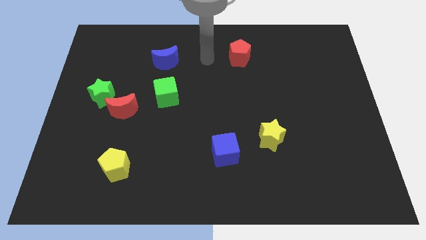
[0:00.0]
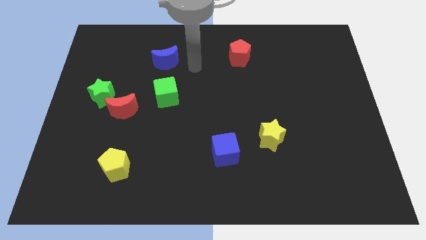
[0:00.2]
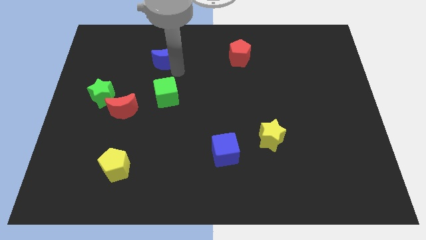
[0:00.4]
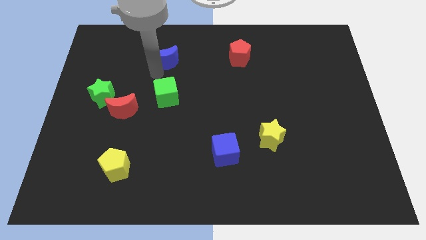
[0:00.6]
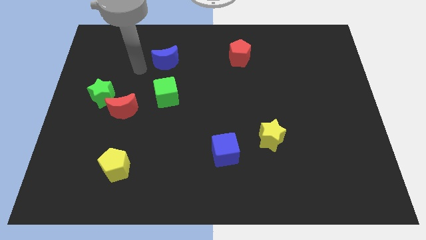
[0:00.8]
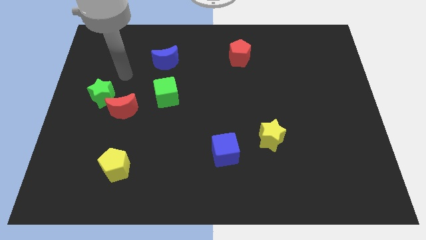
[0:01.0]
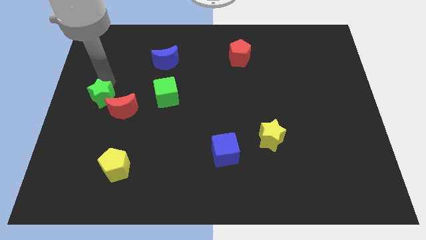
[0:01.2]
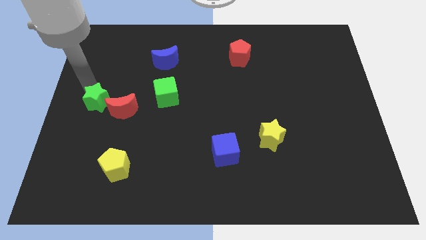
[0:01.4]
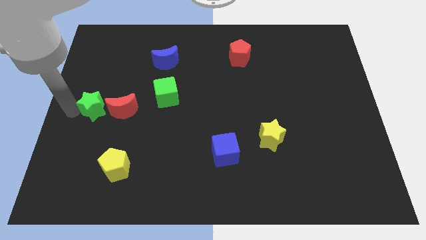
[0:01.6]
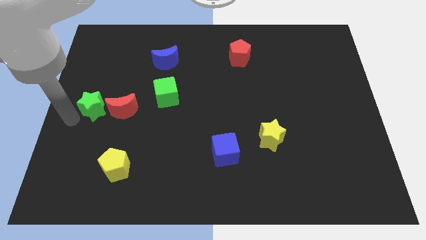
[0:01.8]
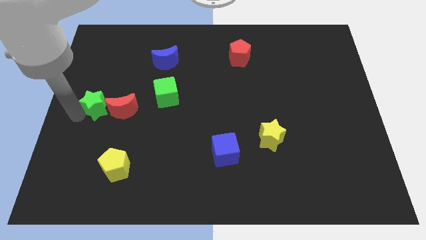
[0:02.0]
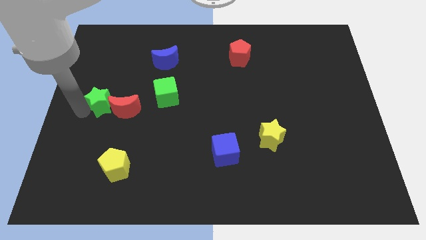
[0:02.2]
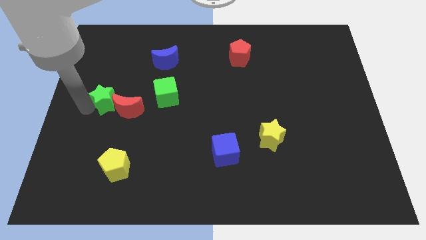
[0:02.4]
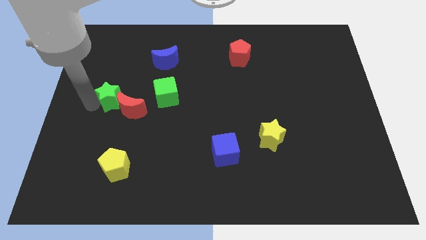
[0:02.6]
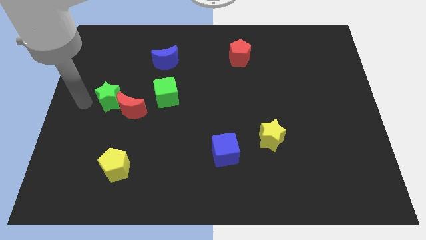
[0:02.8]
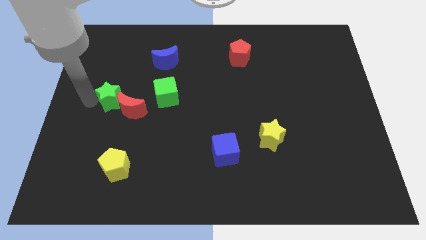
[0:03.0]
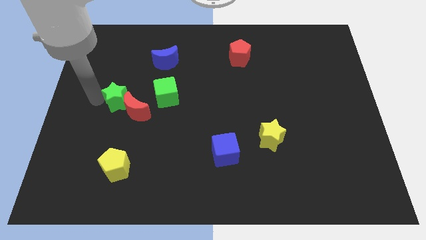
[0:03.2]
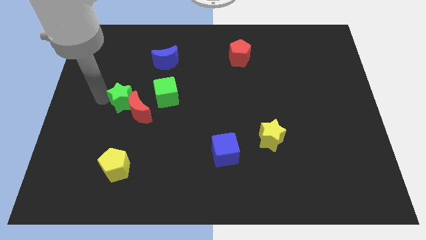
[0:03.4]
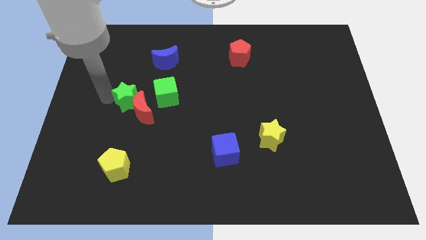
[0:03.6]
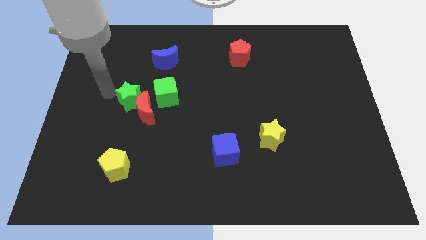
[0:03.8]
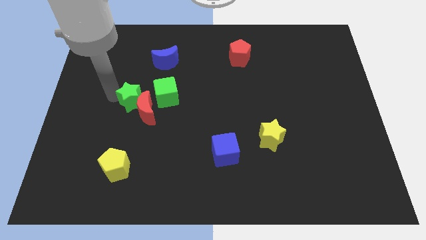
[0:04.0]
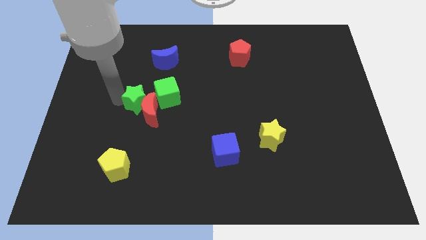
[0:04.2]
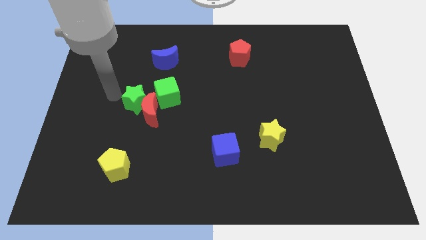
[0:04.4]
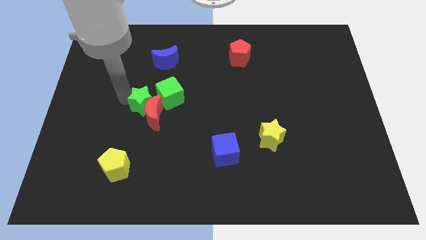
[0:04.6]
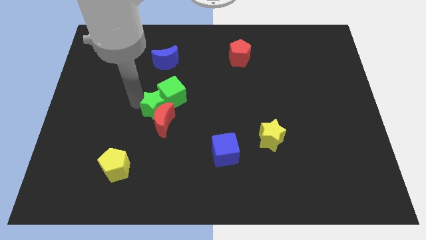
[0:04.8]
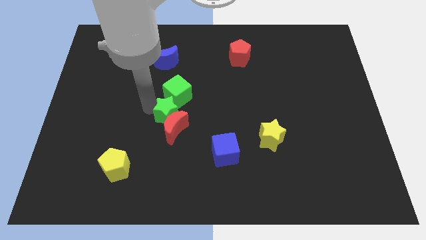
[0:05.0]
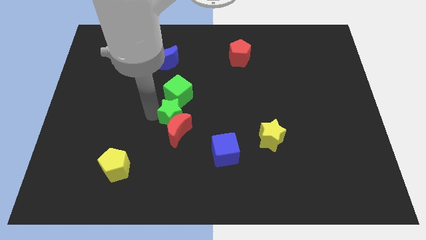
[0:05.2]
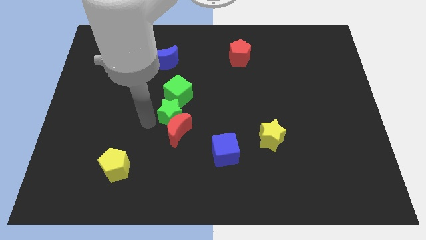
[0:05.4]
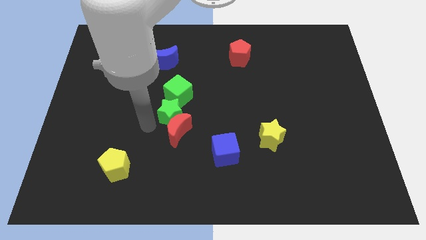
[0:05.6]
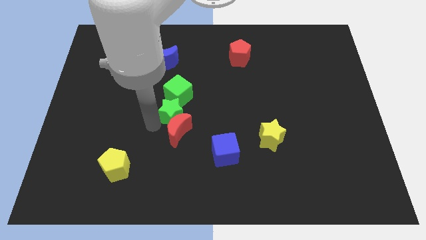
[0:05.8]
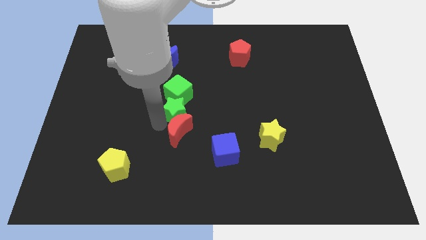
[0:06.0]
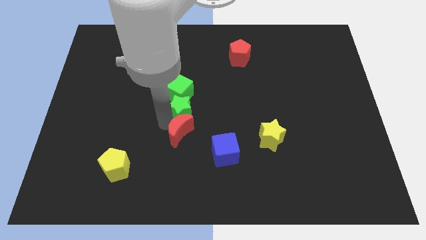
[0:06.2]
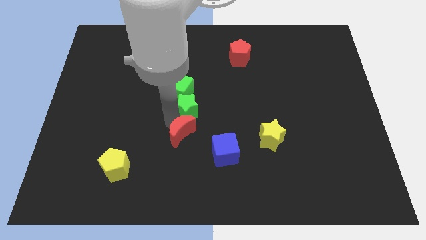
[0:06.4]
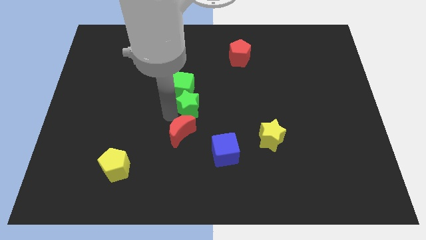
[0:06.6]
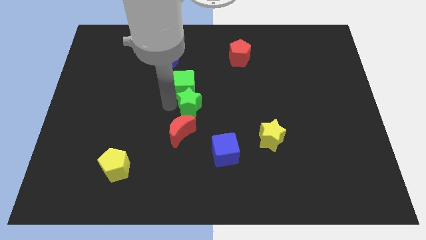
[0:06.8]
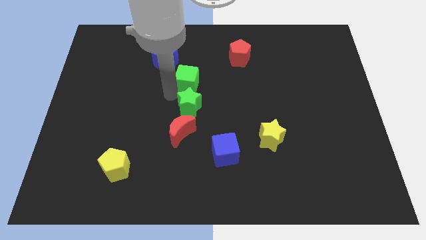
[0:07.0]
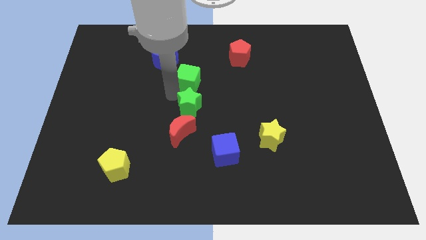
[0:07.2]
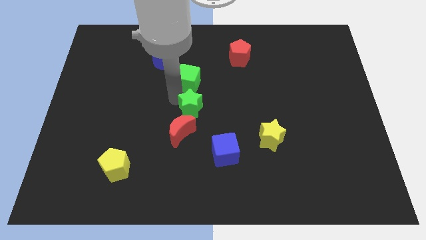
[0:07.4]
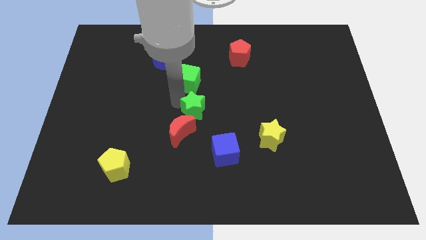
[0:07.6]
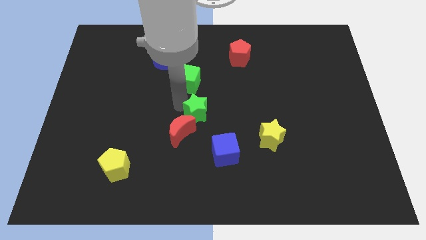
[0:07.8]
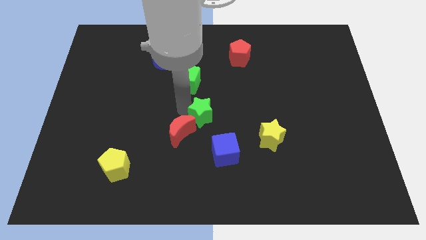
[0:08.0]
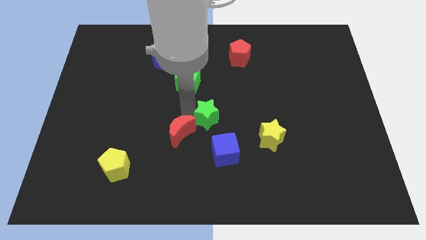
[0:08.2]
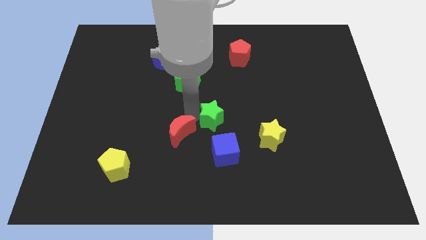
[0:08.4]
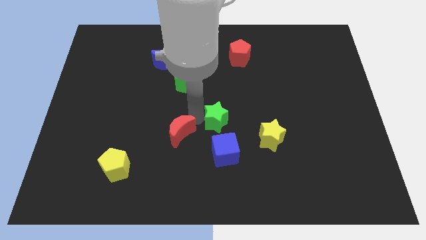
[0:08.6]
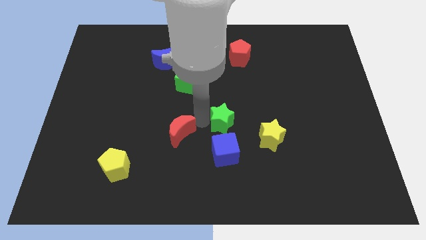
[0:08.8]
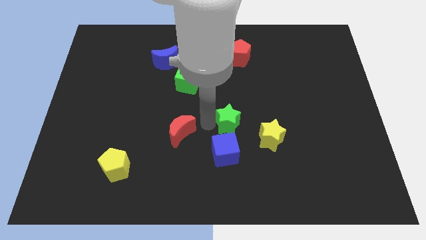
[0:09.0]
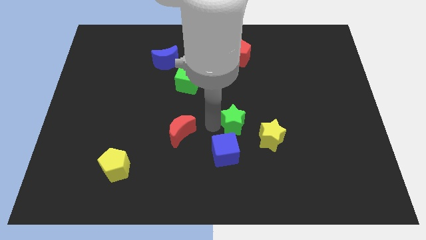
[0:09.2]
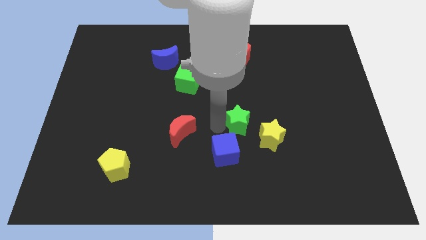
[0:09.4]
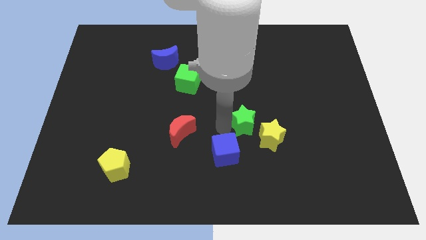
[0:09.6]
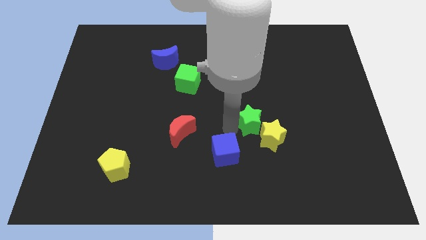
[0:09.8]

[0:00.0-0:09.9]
slide the green star next to the yellow star

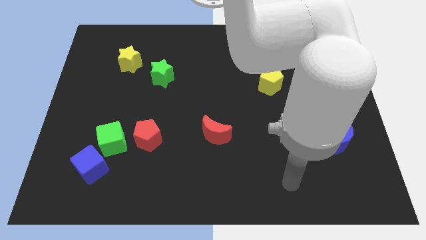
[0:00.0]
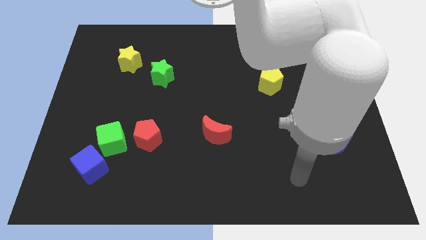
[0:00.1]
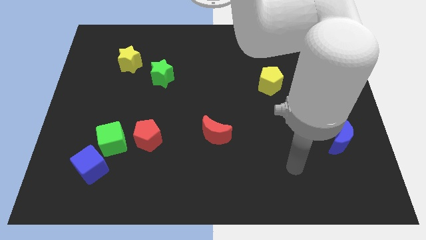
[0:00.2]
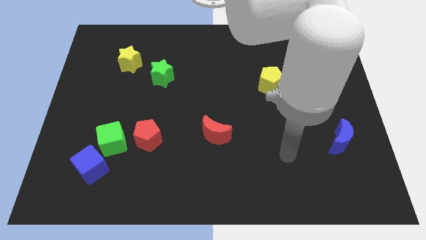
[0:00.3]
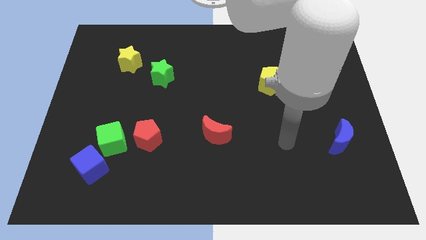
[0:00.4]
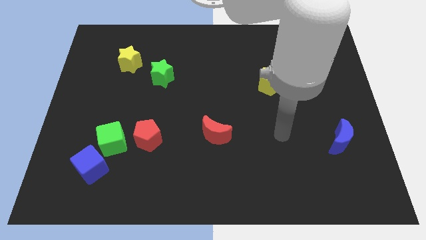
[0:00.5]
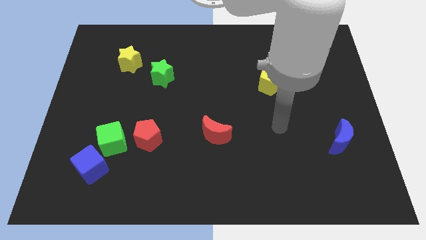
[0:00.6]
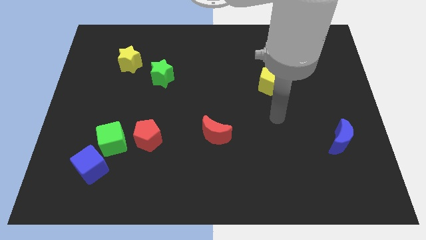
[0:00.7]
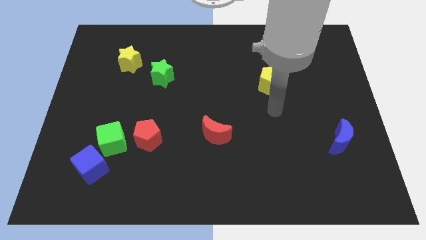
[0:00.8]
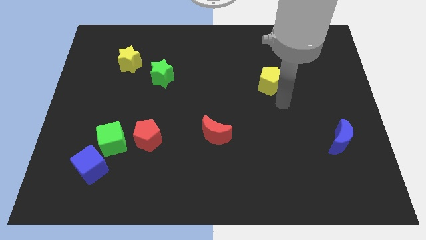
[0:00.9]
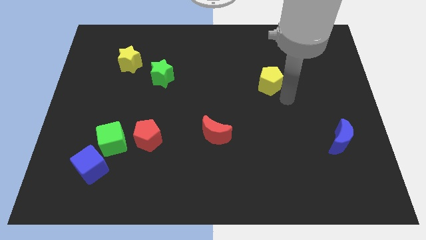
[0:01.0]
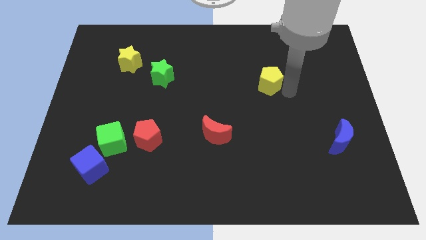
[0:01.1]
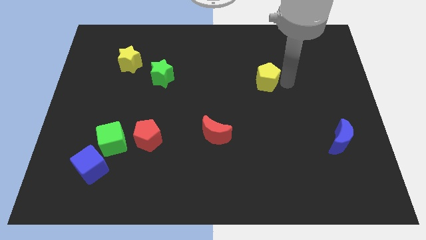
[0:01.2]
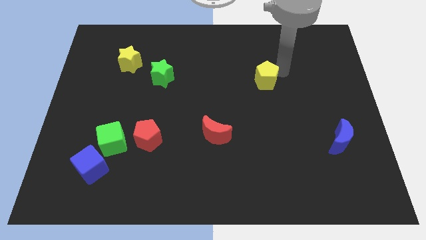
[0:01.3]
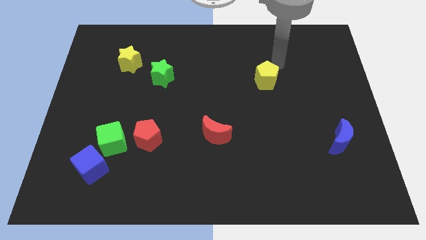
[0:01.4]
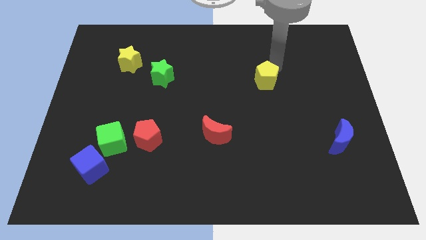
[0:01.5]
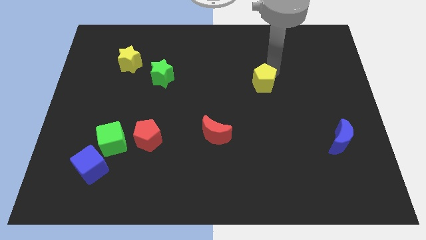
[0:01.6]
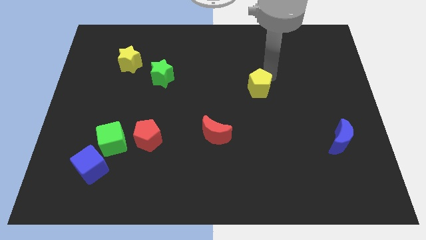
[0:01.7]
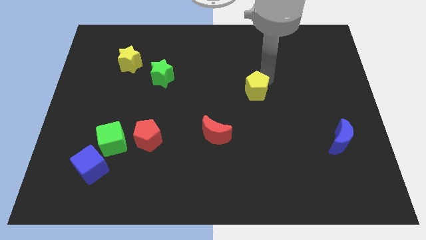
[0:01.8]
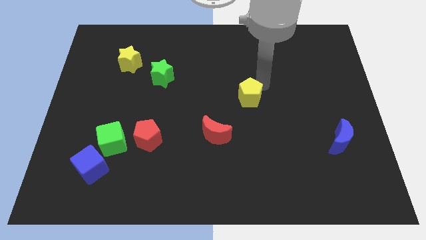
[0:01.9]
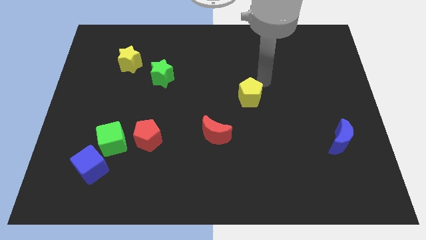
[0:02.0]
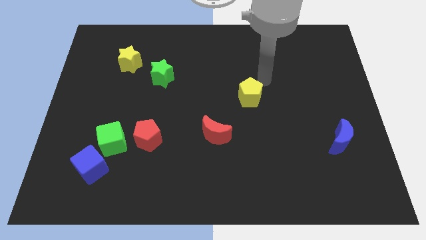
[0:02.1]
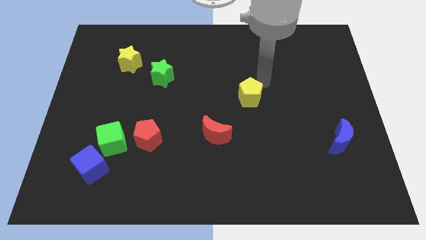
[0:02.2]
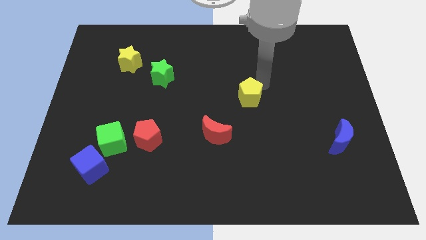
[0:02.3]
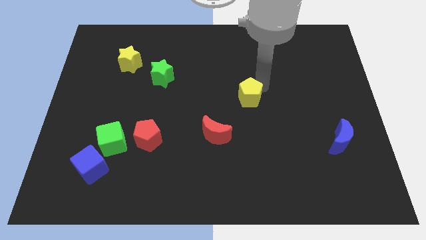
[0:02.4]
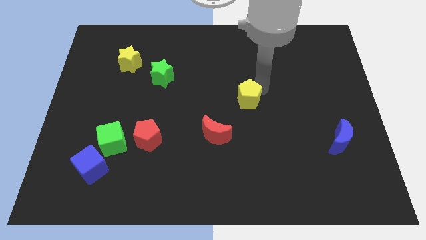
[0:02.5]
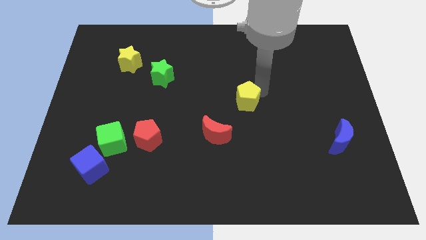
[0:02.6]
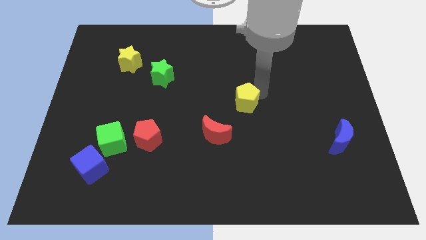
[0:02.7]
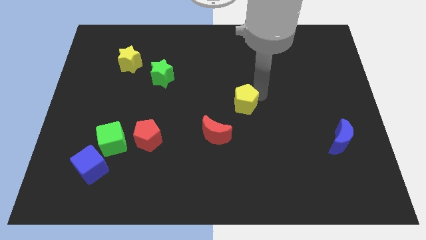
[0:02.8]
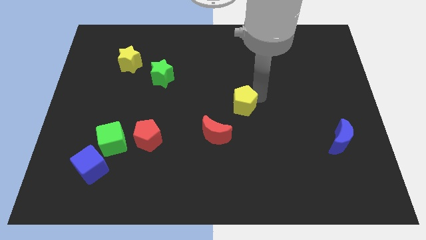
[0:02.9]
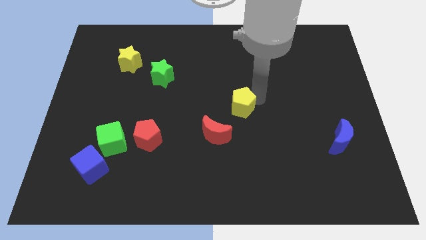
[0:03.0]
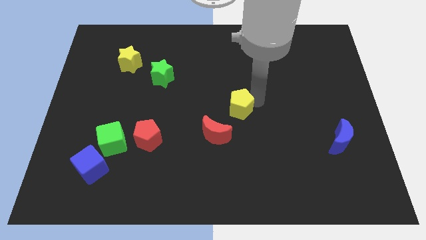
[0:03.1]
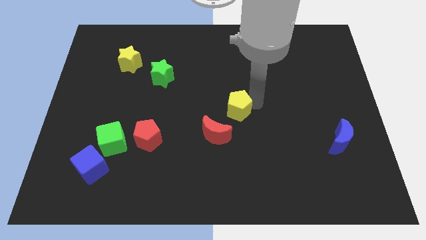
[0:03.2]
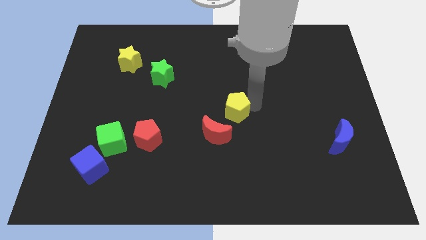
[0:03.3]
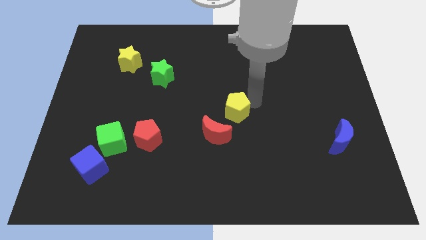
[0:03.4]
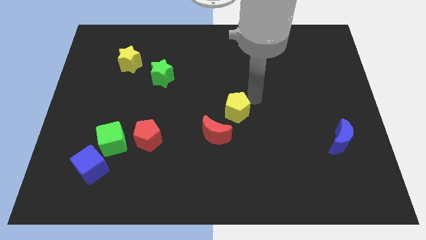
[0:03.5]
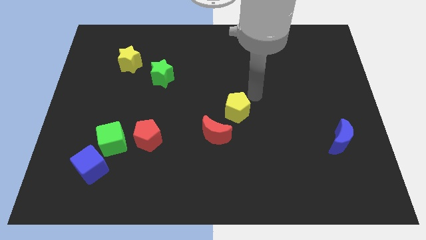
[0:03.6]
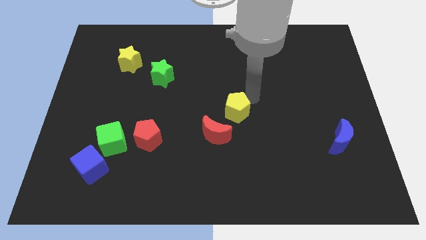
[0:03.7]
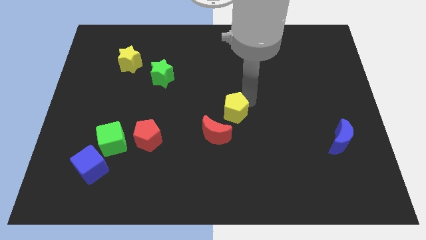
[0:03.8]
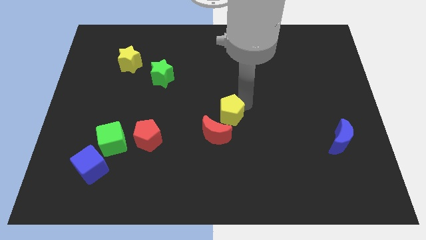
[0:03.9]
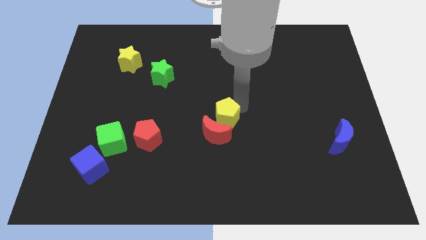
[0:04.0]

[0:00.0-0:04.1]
slide the yellow pentagon next to the red moon
